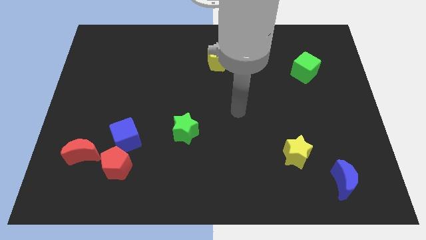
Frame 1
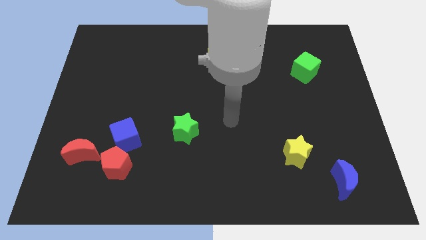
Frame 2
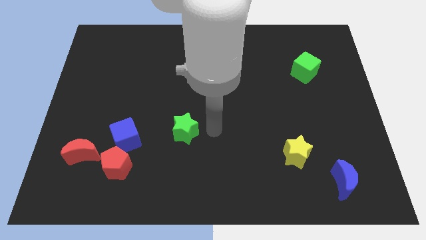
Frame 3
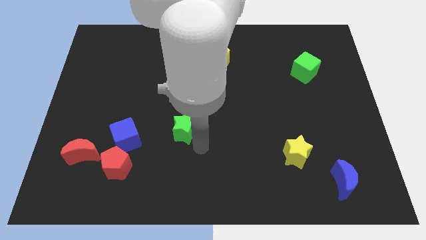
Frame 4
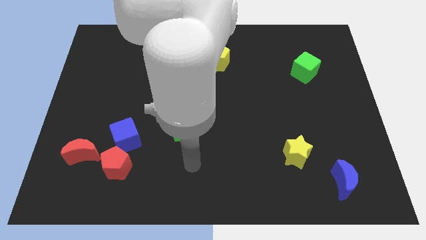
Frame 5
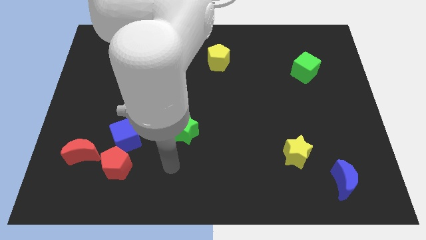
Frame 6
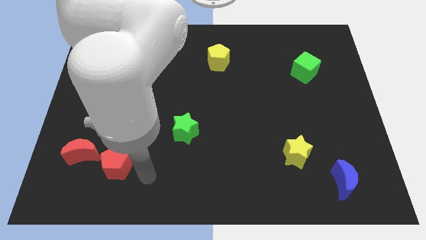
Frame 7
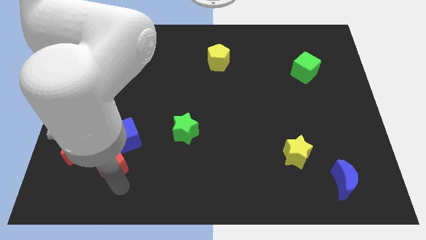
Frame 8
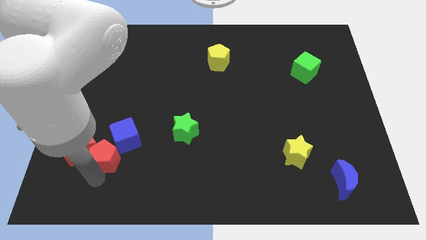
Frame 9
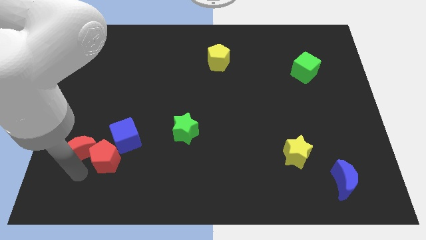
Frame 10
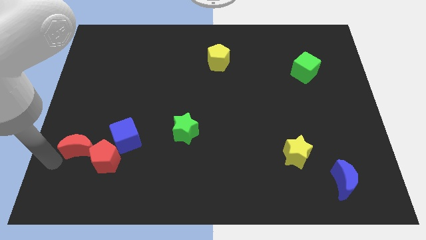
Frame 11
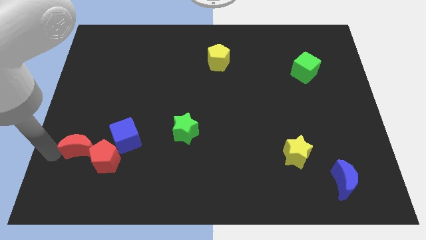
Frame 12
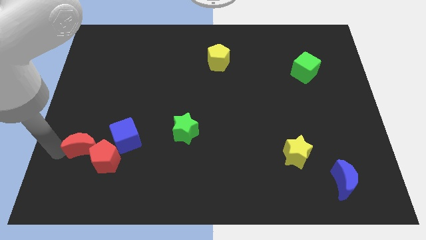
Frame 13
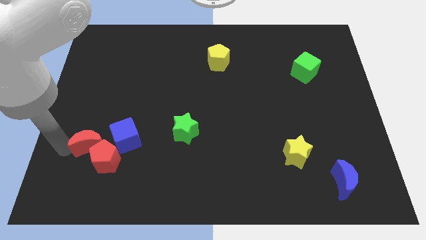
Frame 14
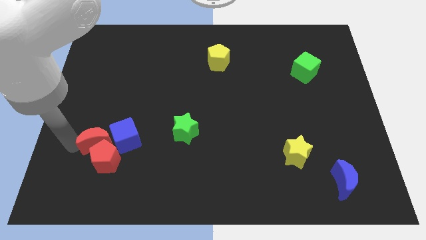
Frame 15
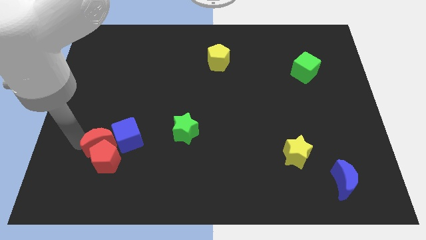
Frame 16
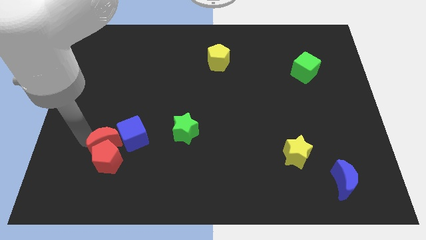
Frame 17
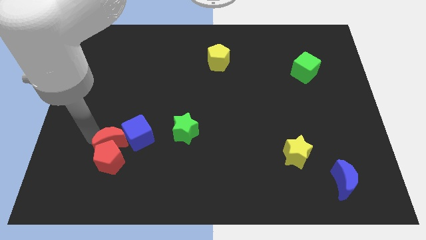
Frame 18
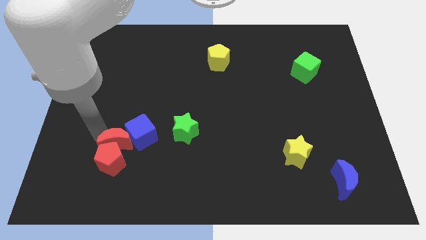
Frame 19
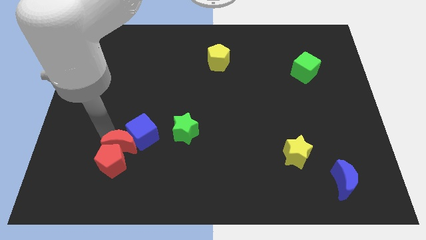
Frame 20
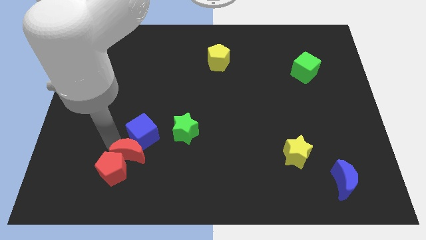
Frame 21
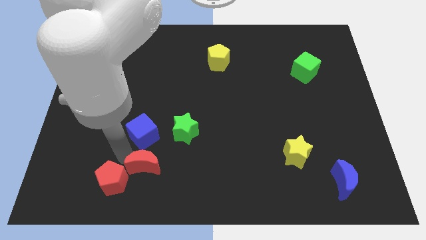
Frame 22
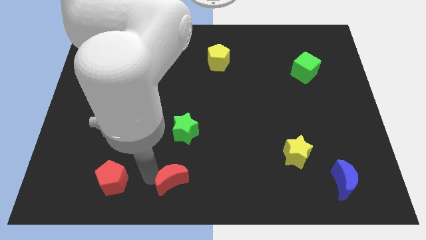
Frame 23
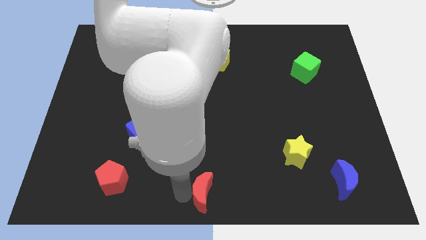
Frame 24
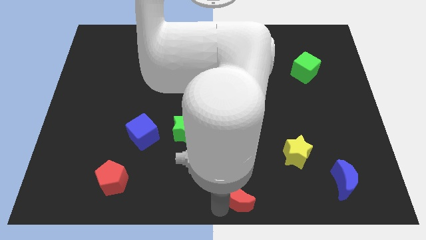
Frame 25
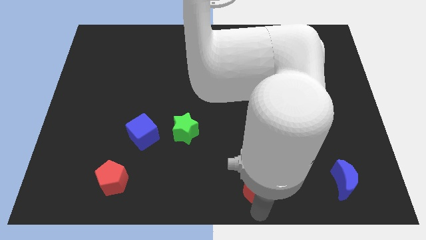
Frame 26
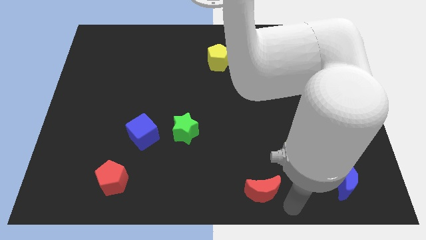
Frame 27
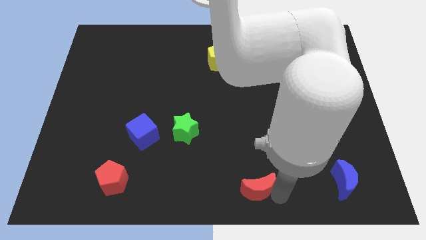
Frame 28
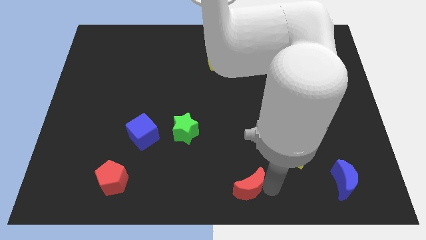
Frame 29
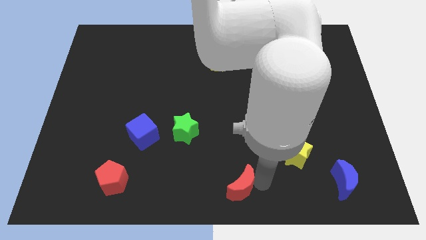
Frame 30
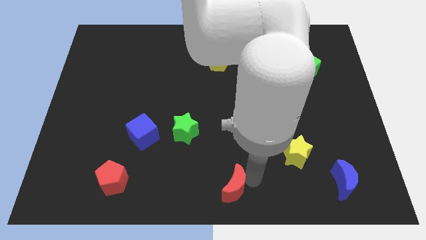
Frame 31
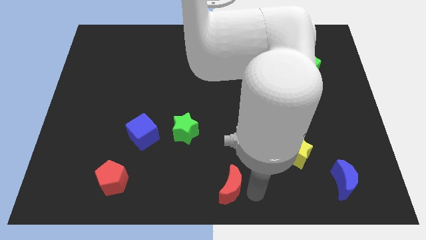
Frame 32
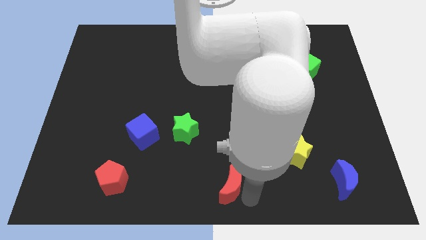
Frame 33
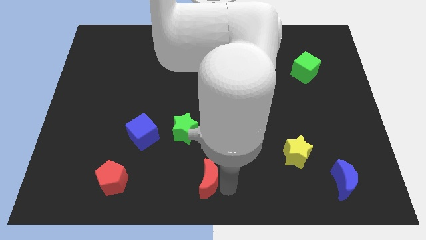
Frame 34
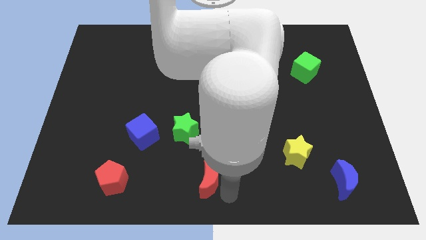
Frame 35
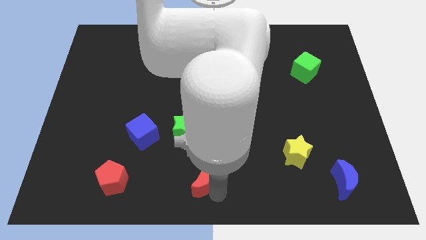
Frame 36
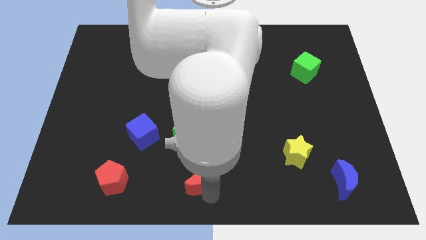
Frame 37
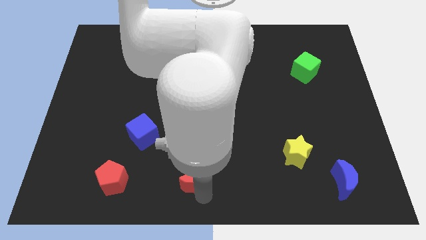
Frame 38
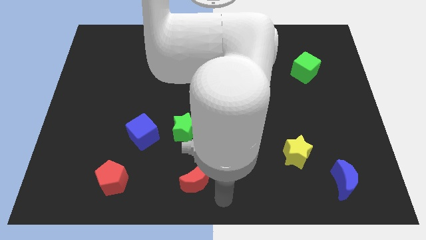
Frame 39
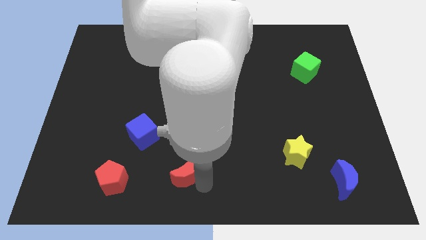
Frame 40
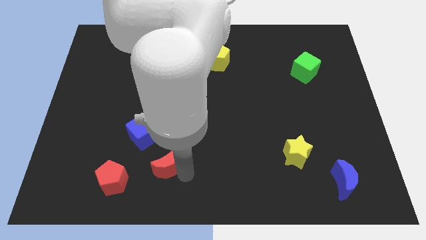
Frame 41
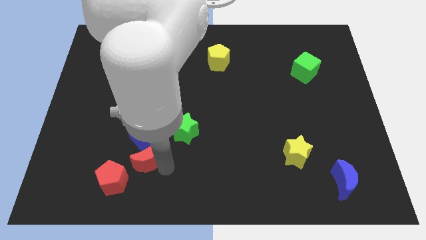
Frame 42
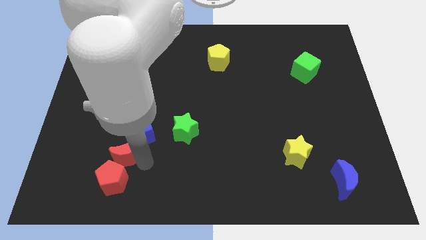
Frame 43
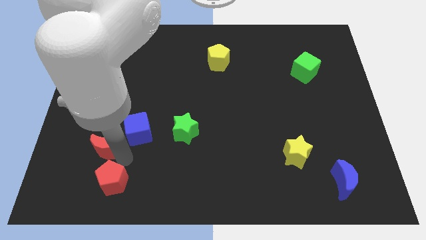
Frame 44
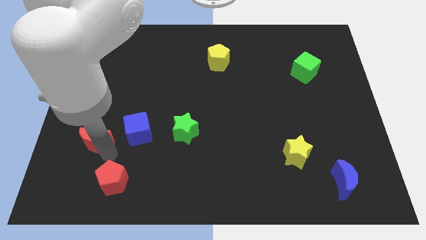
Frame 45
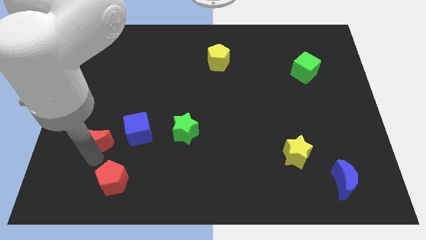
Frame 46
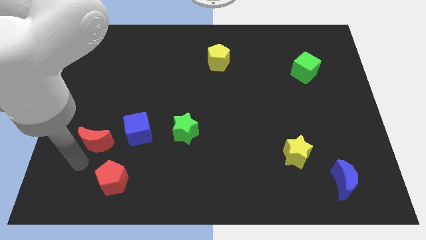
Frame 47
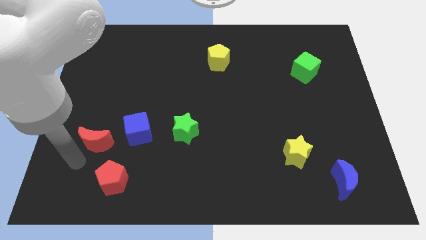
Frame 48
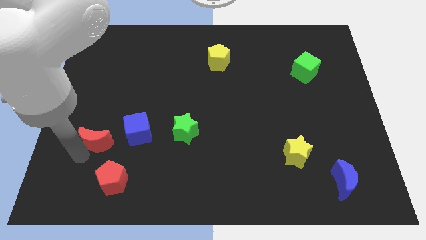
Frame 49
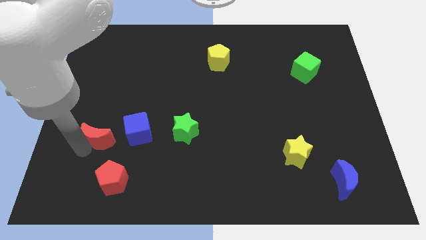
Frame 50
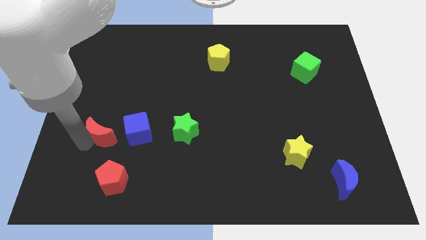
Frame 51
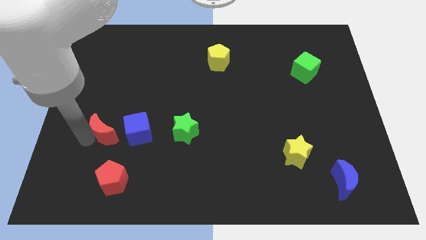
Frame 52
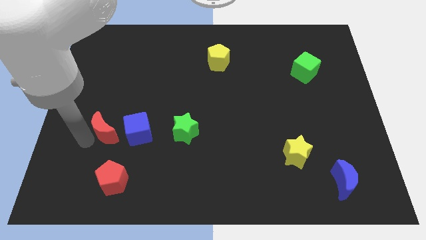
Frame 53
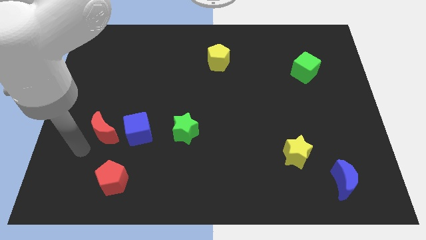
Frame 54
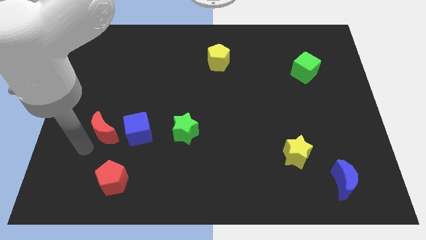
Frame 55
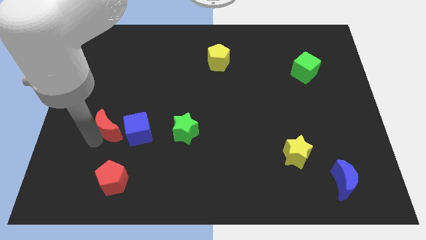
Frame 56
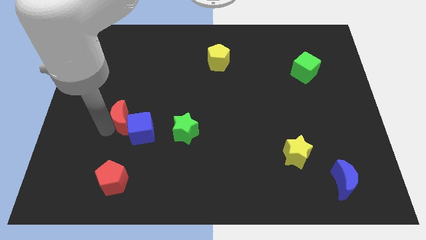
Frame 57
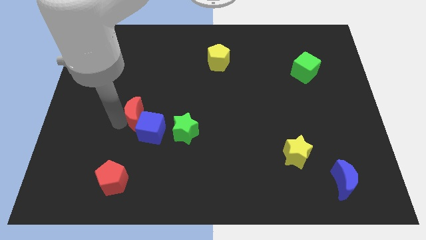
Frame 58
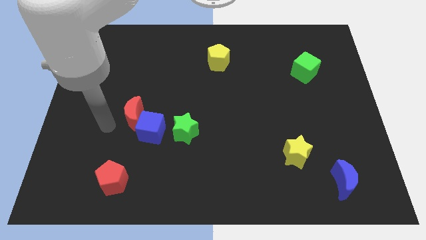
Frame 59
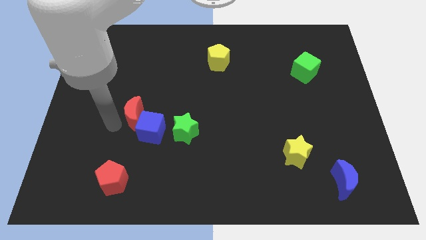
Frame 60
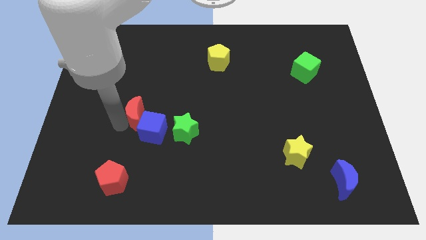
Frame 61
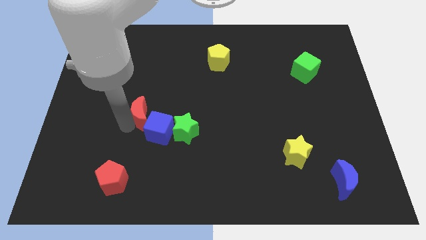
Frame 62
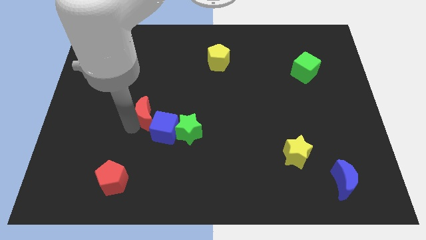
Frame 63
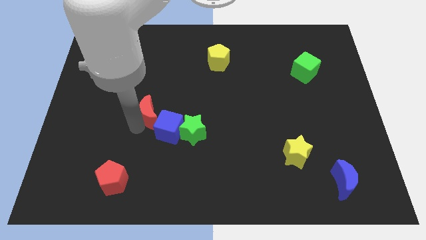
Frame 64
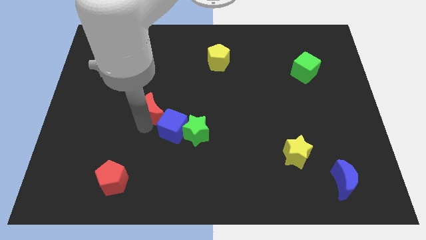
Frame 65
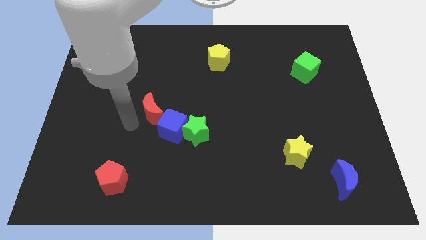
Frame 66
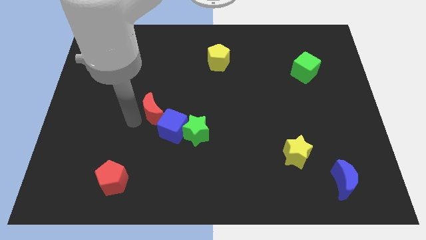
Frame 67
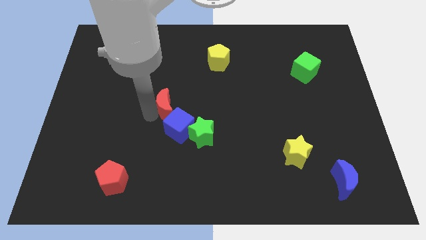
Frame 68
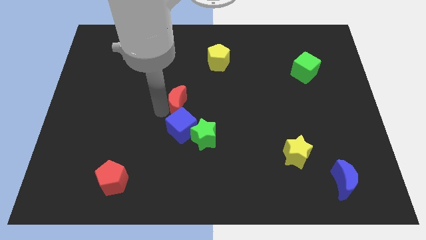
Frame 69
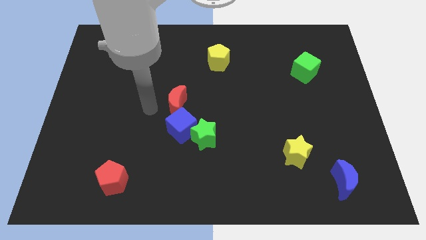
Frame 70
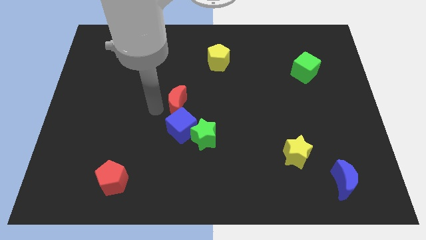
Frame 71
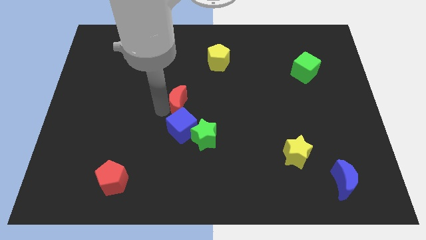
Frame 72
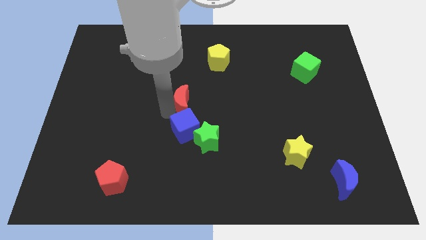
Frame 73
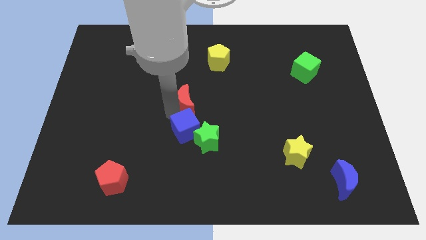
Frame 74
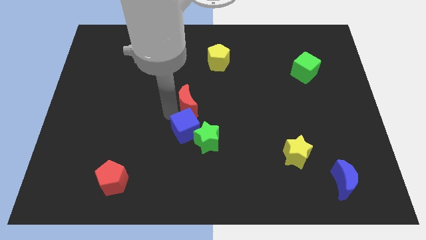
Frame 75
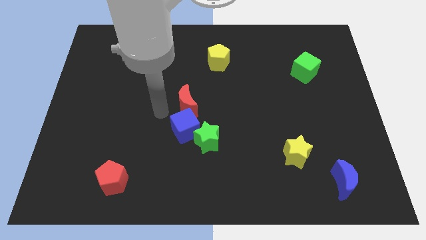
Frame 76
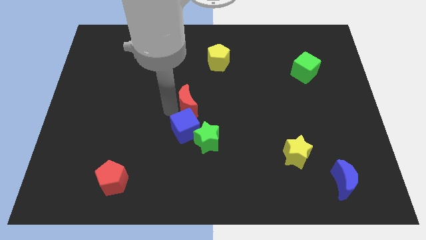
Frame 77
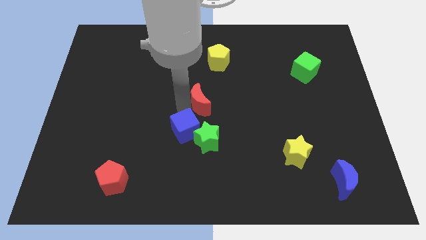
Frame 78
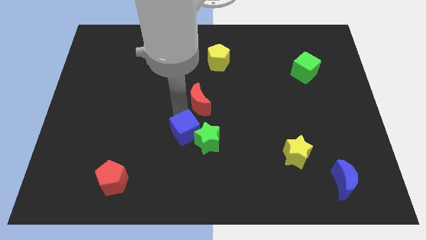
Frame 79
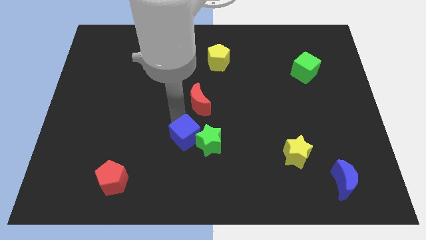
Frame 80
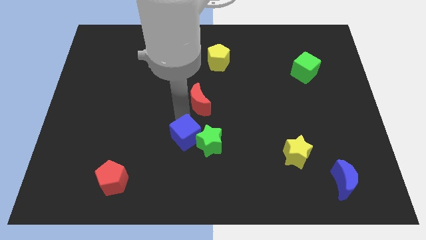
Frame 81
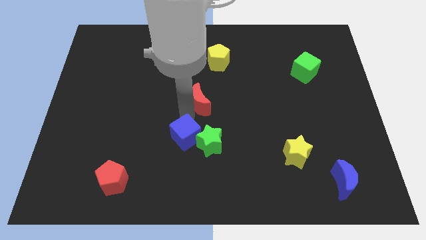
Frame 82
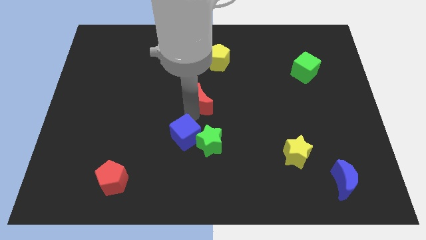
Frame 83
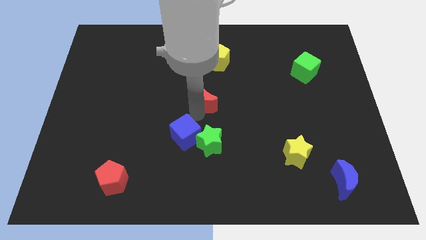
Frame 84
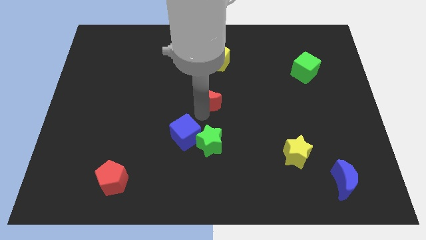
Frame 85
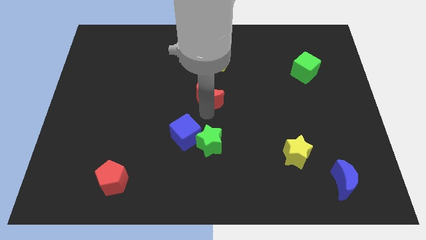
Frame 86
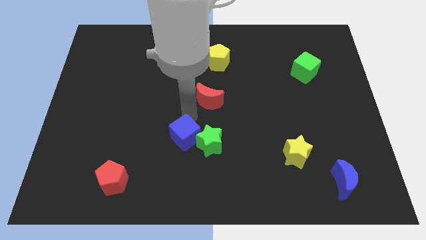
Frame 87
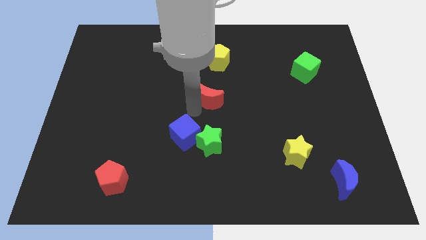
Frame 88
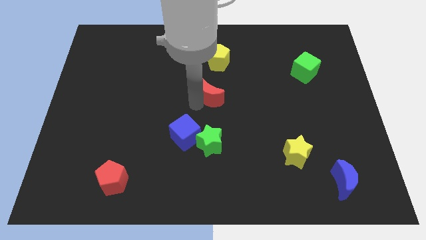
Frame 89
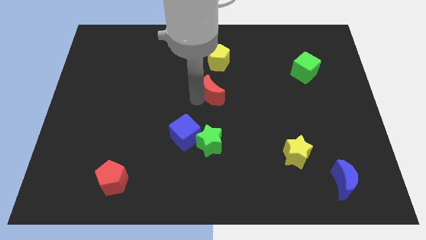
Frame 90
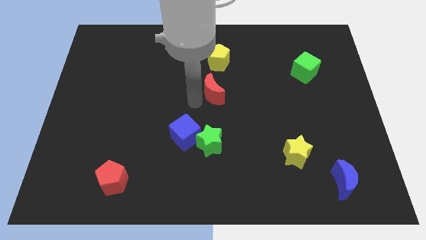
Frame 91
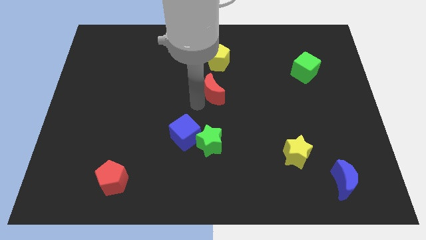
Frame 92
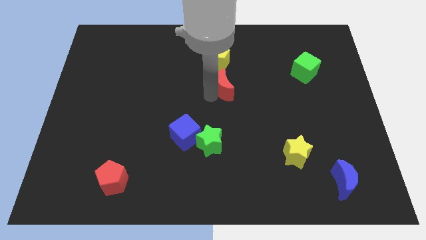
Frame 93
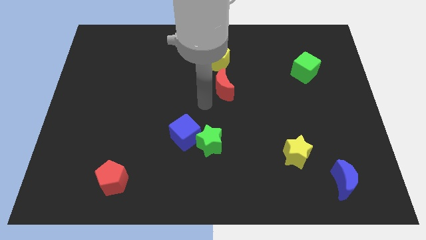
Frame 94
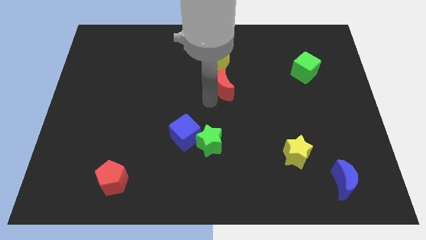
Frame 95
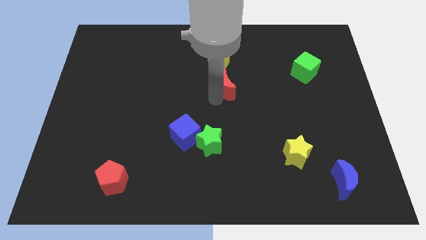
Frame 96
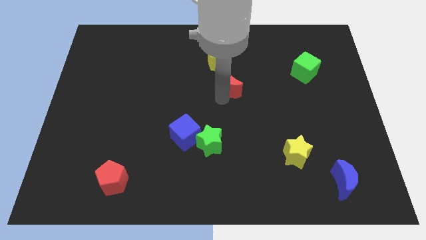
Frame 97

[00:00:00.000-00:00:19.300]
slide the red moon to the bottom right side of the yellow pentagon
